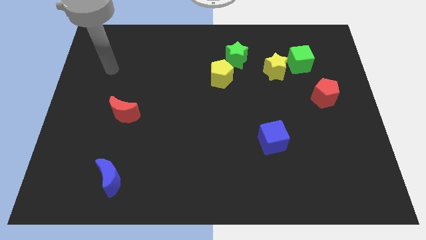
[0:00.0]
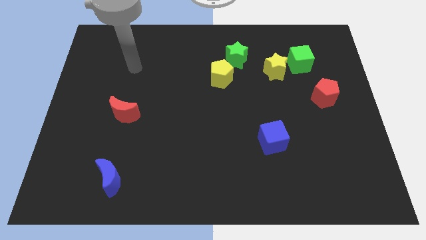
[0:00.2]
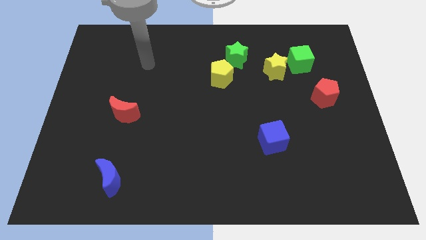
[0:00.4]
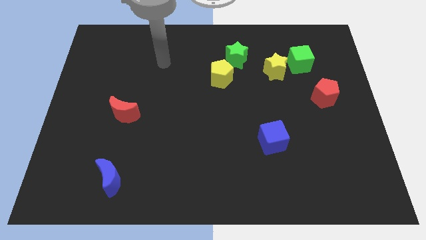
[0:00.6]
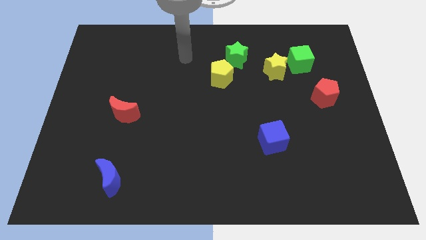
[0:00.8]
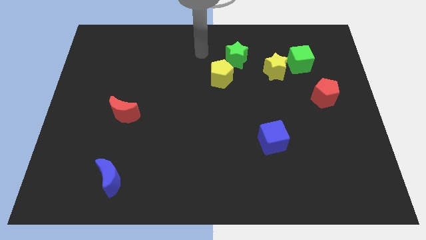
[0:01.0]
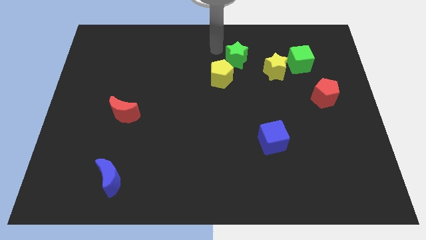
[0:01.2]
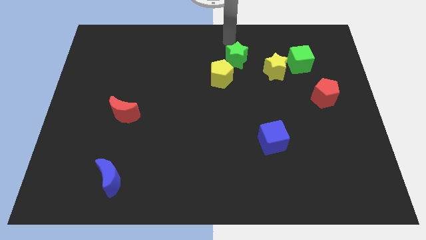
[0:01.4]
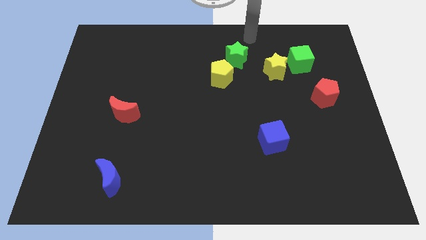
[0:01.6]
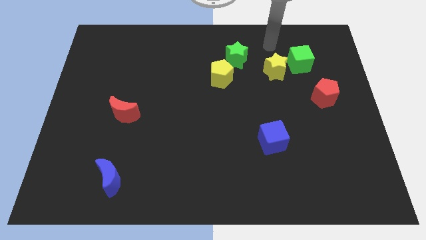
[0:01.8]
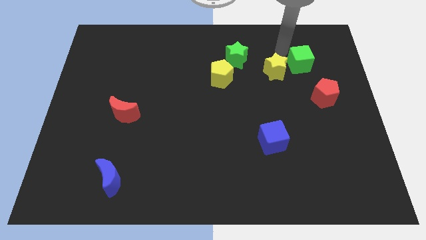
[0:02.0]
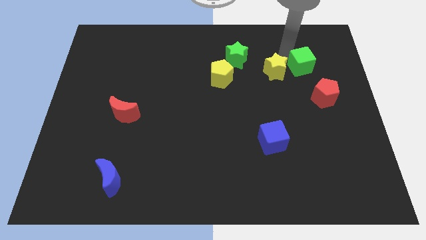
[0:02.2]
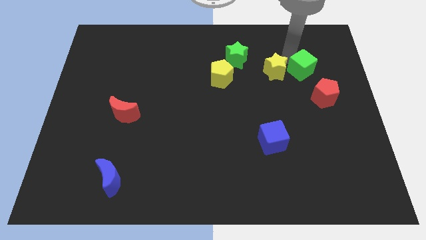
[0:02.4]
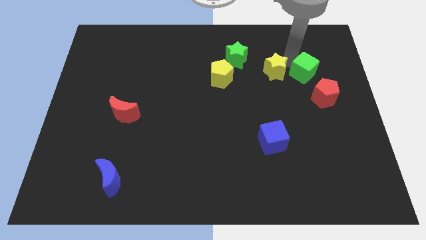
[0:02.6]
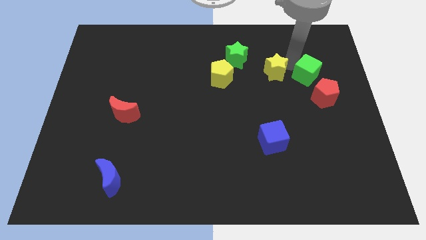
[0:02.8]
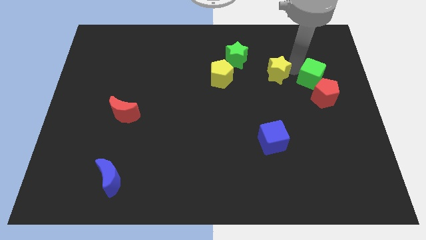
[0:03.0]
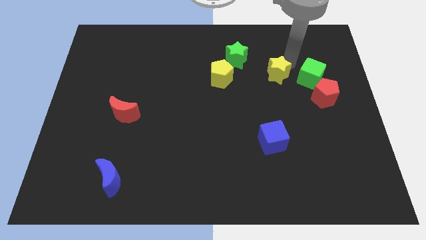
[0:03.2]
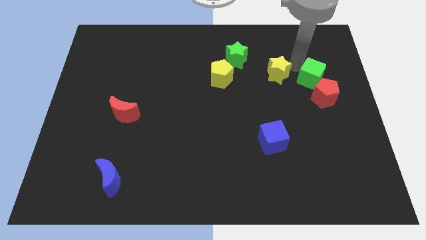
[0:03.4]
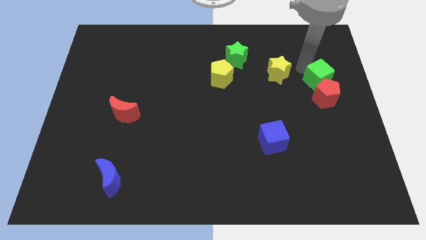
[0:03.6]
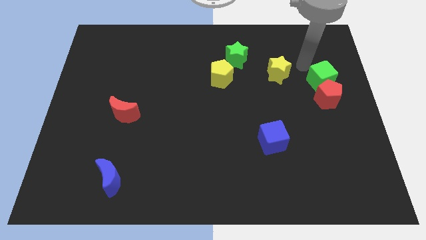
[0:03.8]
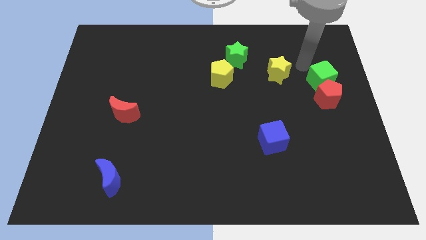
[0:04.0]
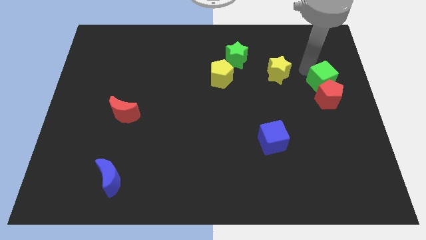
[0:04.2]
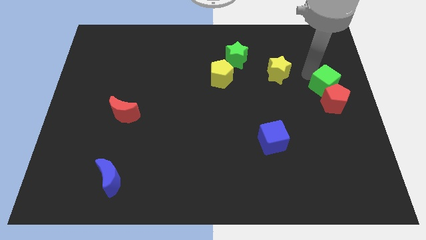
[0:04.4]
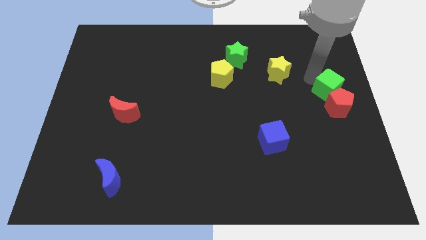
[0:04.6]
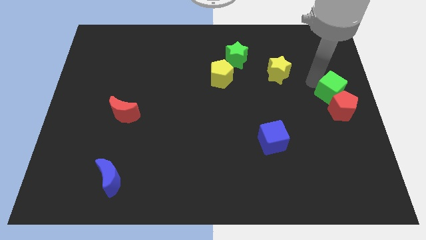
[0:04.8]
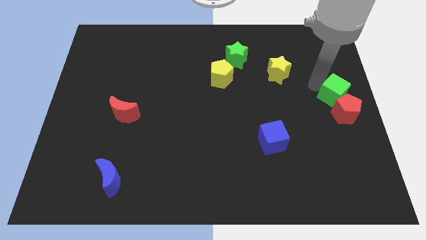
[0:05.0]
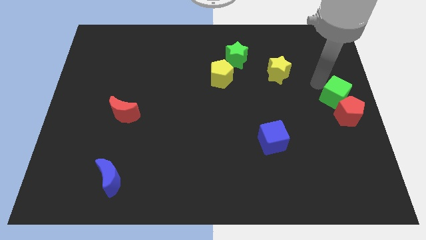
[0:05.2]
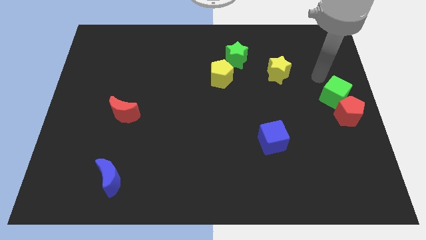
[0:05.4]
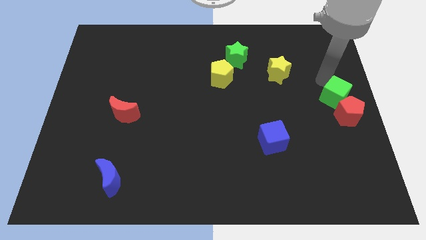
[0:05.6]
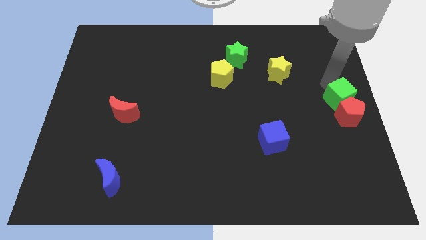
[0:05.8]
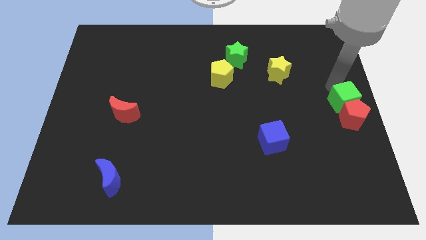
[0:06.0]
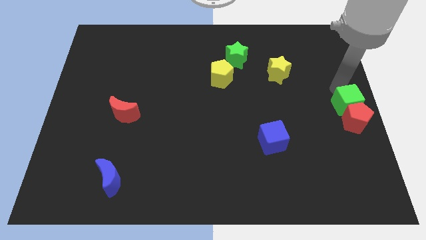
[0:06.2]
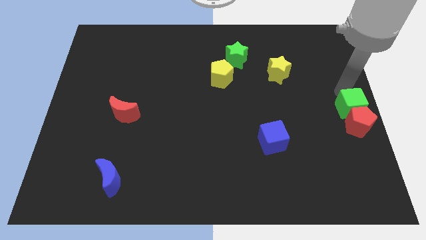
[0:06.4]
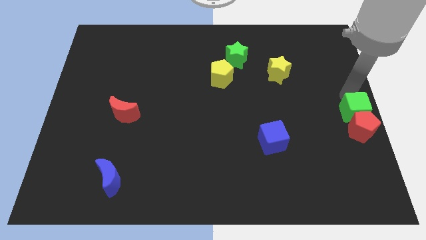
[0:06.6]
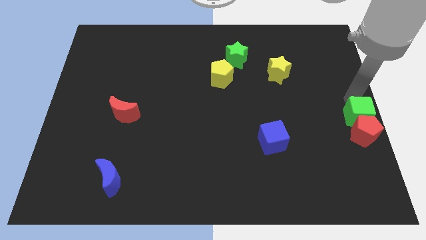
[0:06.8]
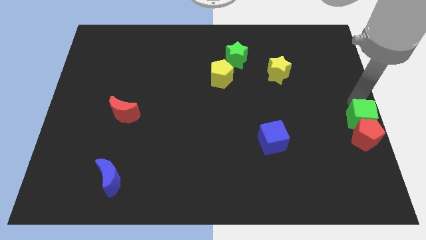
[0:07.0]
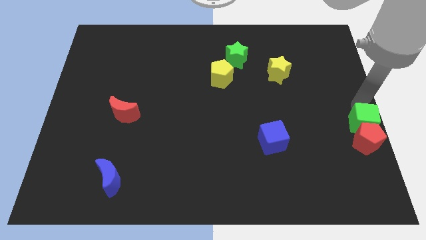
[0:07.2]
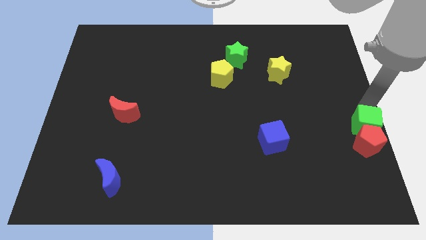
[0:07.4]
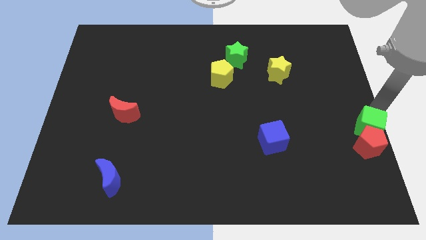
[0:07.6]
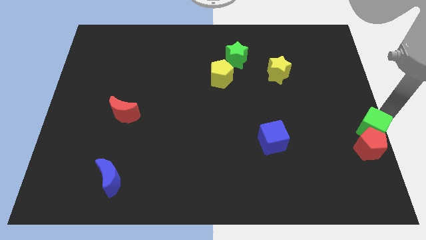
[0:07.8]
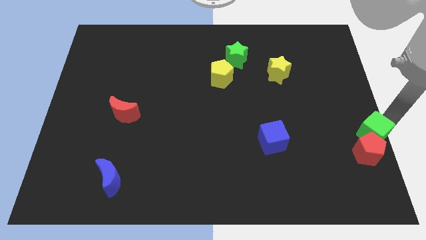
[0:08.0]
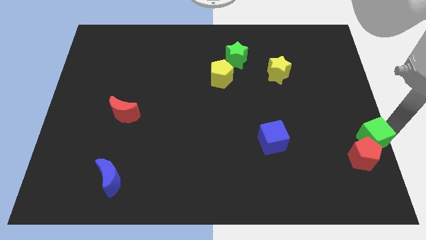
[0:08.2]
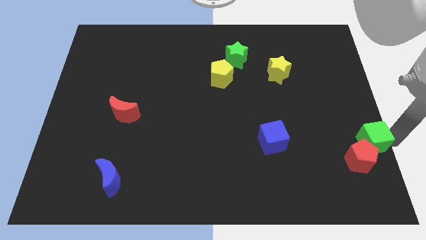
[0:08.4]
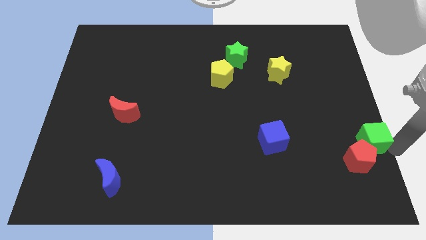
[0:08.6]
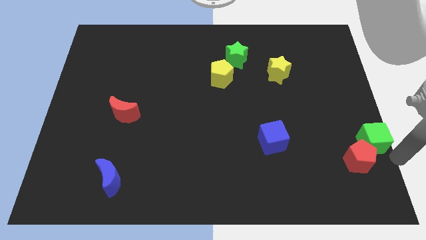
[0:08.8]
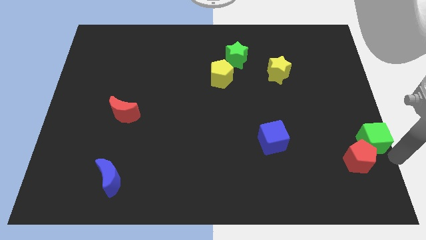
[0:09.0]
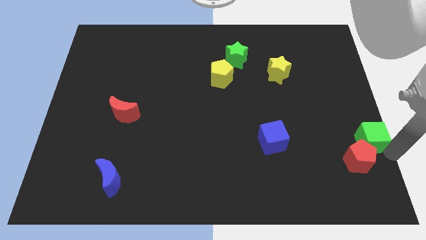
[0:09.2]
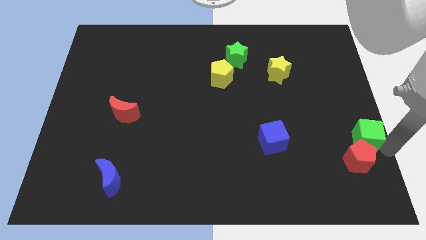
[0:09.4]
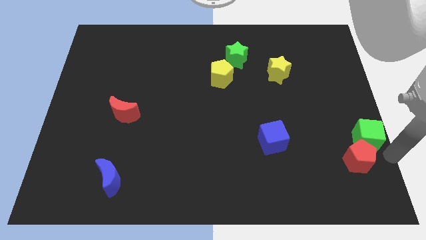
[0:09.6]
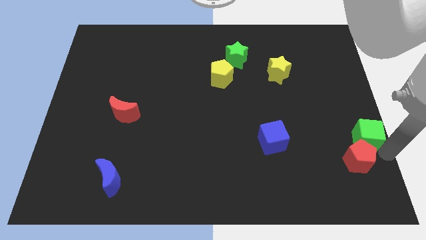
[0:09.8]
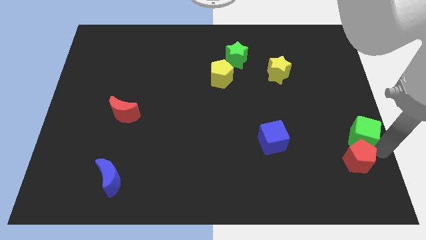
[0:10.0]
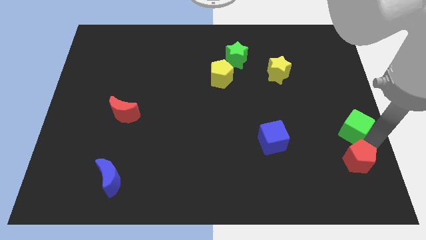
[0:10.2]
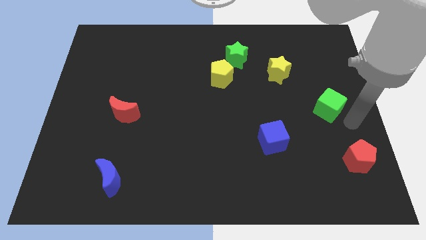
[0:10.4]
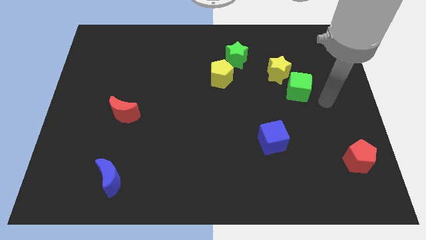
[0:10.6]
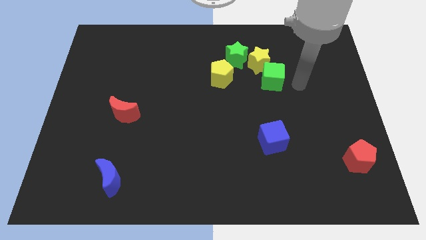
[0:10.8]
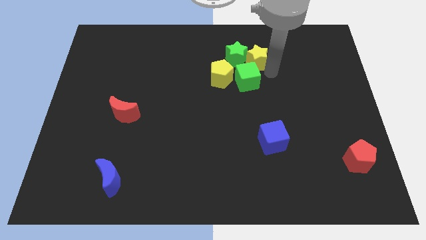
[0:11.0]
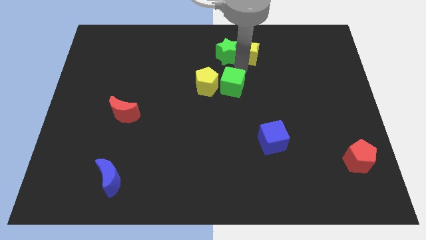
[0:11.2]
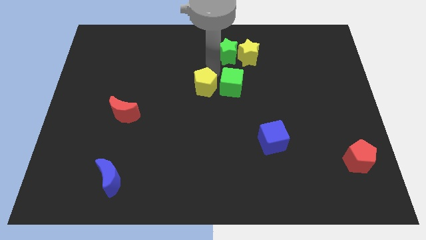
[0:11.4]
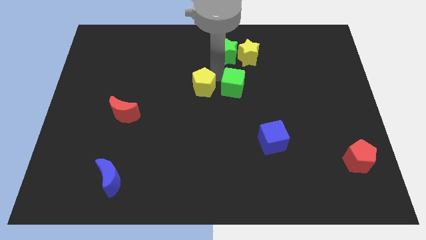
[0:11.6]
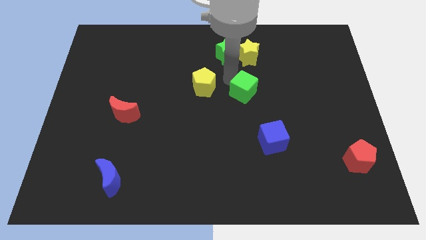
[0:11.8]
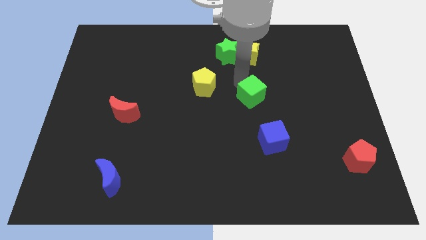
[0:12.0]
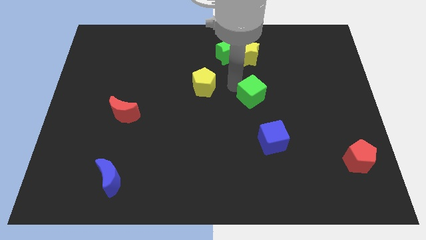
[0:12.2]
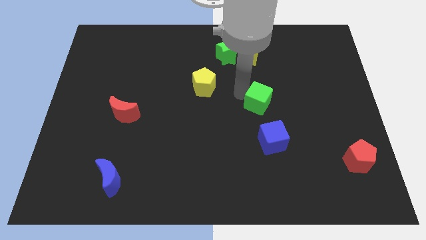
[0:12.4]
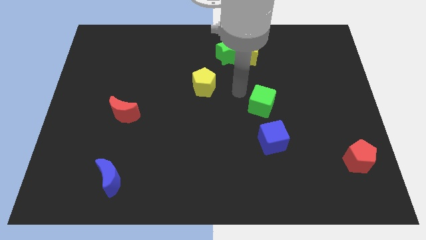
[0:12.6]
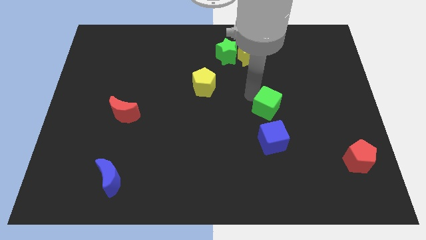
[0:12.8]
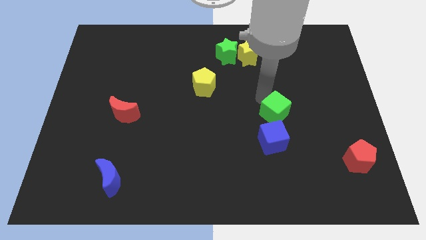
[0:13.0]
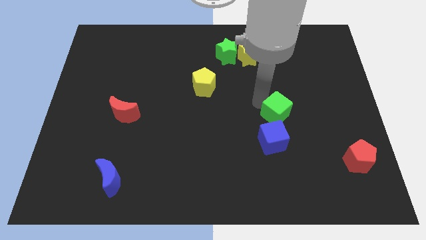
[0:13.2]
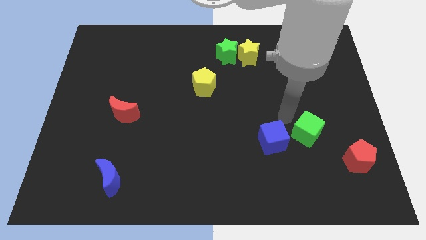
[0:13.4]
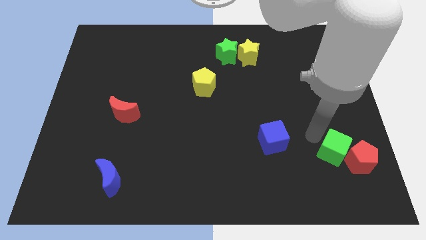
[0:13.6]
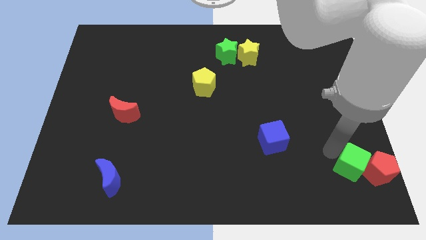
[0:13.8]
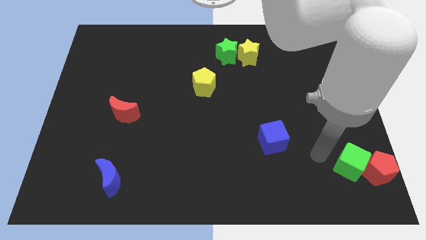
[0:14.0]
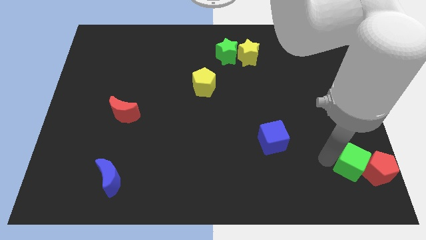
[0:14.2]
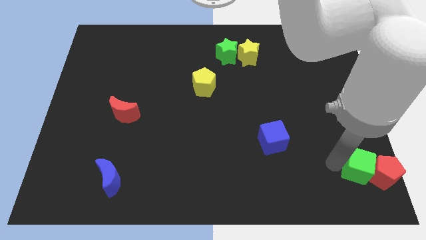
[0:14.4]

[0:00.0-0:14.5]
put the green cube to the bottom right of the board
